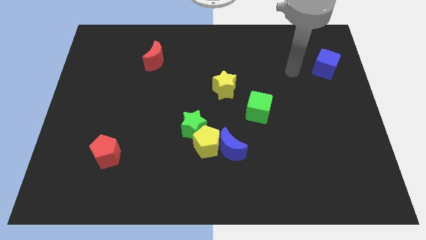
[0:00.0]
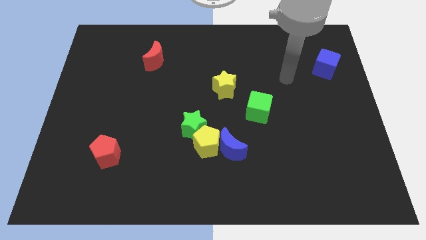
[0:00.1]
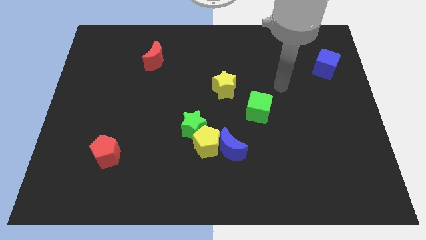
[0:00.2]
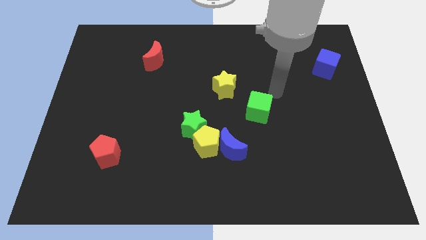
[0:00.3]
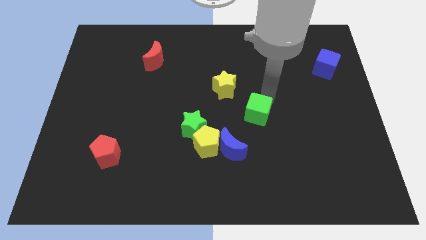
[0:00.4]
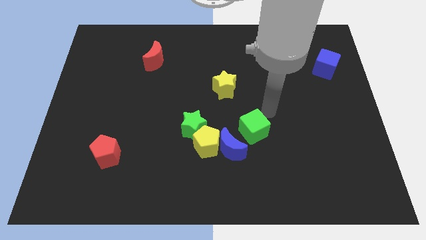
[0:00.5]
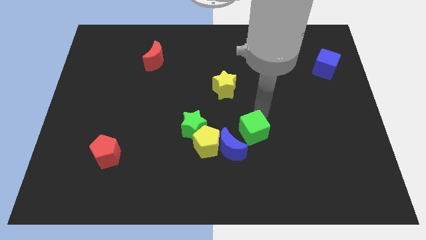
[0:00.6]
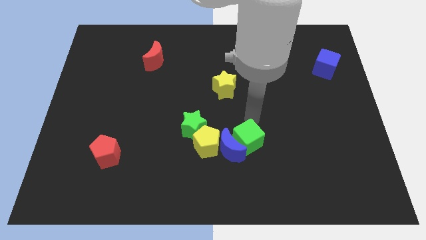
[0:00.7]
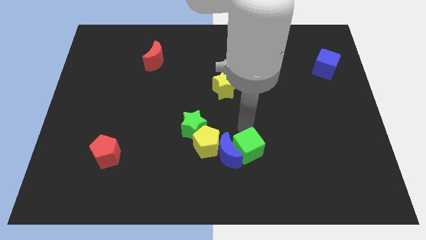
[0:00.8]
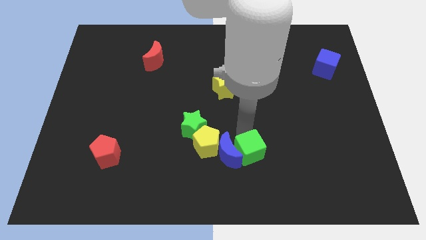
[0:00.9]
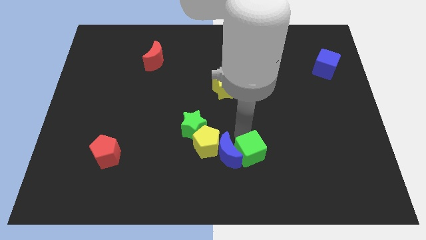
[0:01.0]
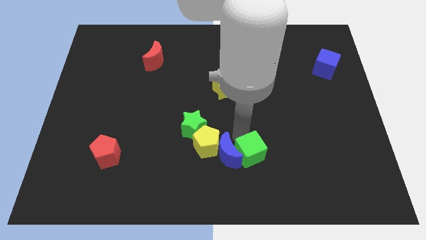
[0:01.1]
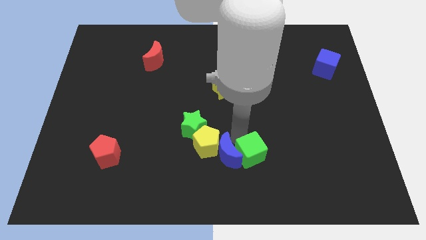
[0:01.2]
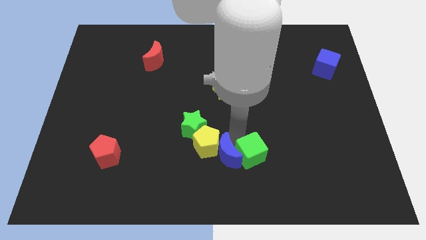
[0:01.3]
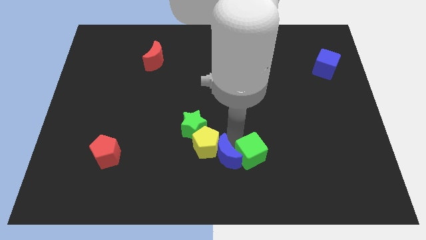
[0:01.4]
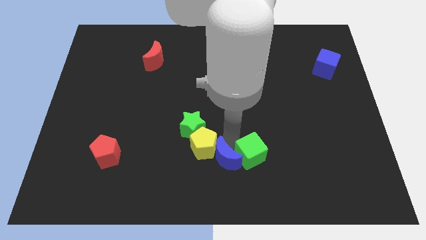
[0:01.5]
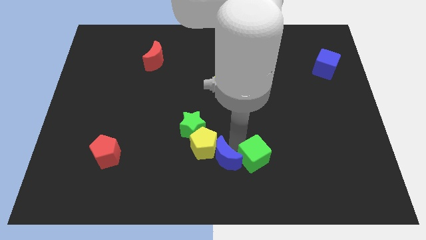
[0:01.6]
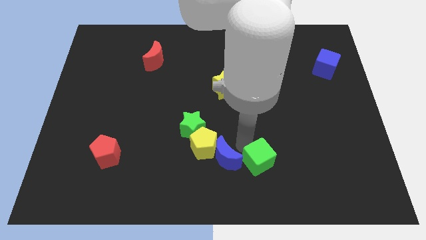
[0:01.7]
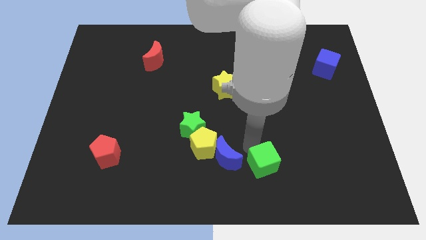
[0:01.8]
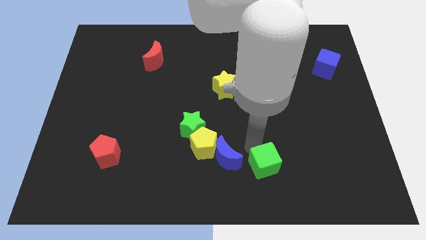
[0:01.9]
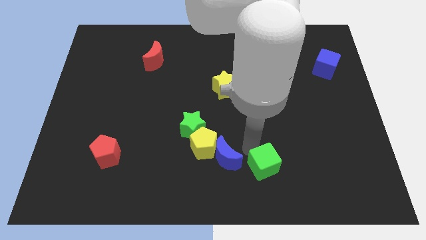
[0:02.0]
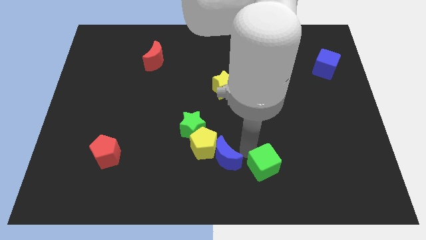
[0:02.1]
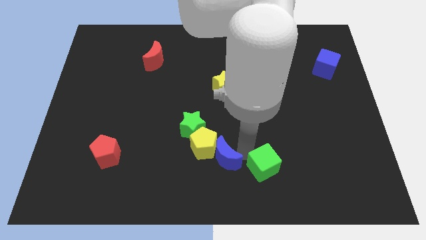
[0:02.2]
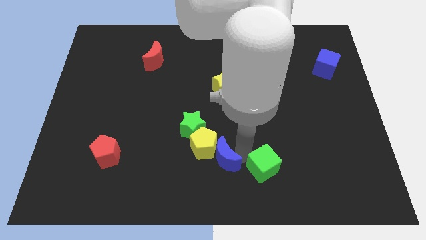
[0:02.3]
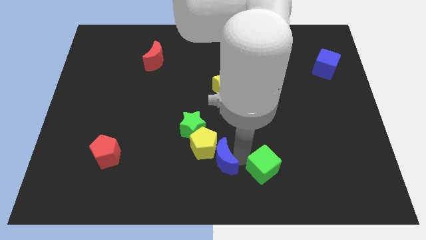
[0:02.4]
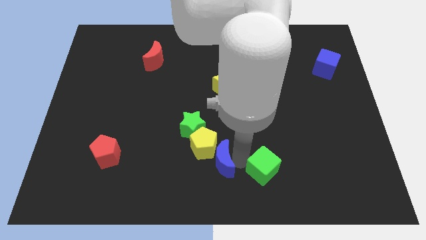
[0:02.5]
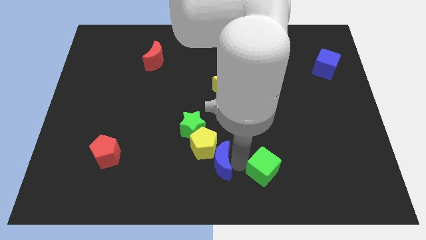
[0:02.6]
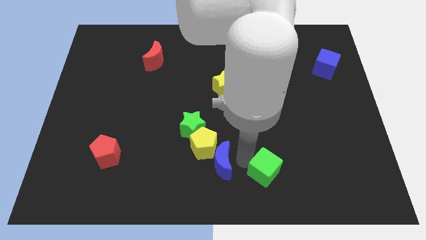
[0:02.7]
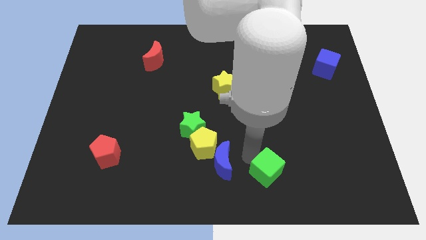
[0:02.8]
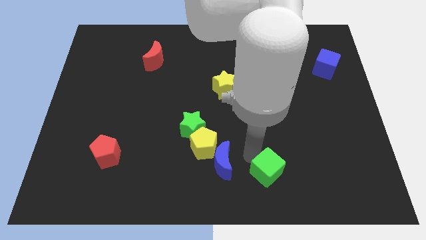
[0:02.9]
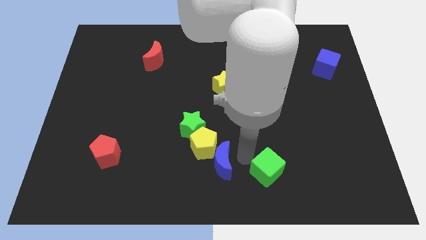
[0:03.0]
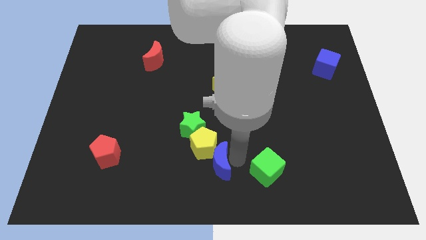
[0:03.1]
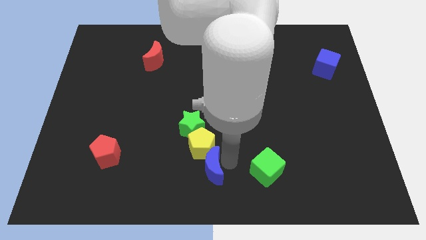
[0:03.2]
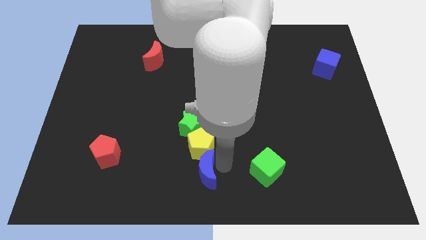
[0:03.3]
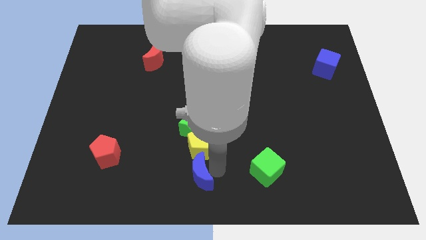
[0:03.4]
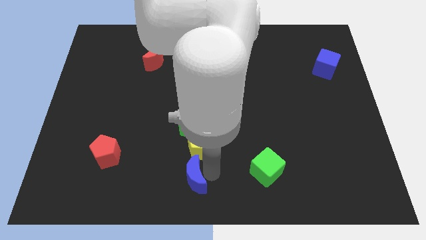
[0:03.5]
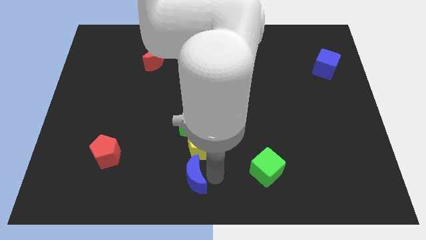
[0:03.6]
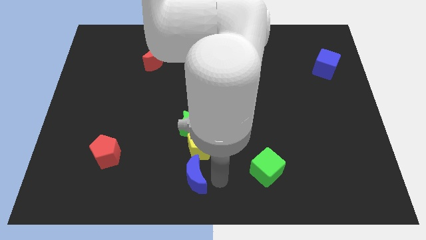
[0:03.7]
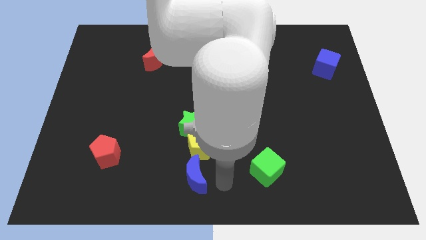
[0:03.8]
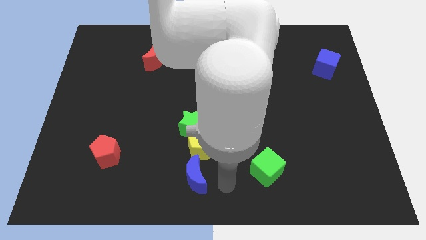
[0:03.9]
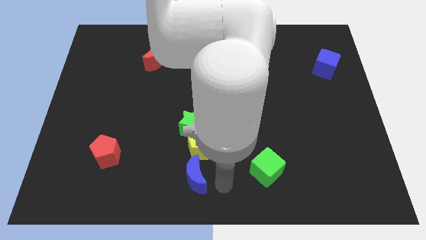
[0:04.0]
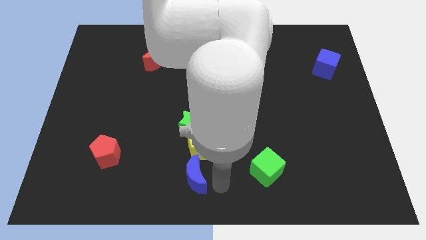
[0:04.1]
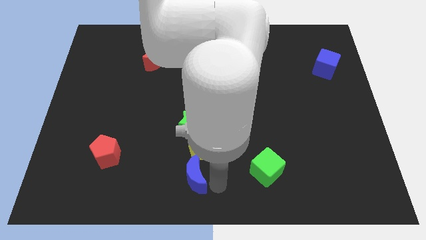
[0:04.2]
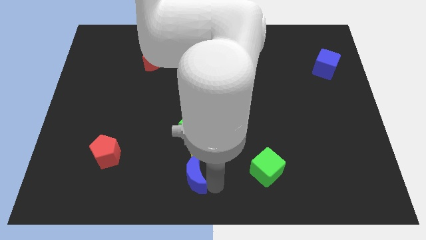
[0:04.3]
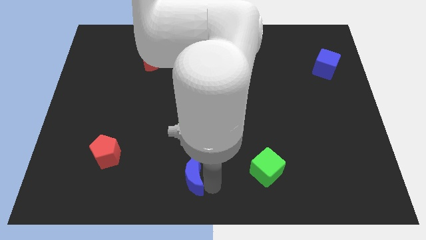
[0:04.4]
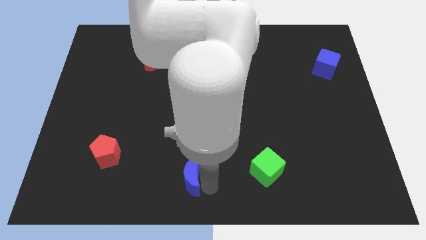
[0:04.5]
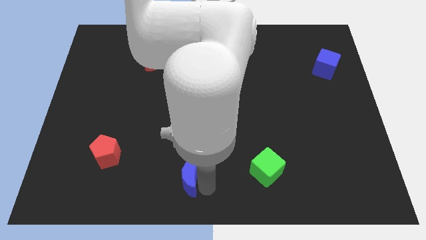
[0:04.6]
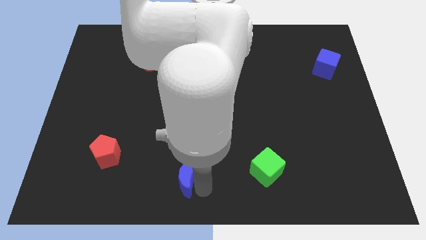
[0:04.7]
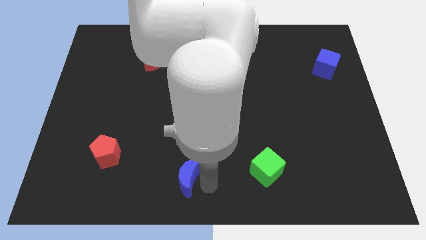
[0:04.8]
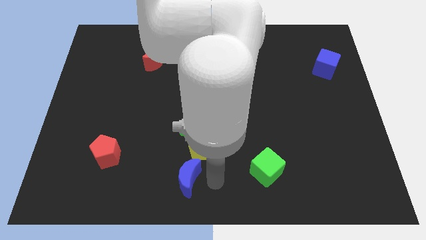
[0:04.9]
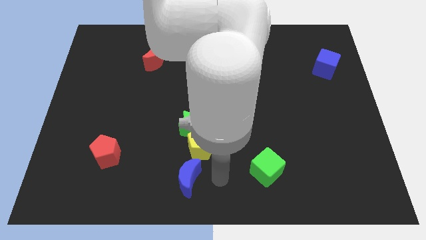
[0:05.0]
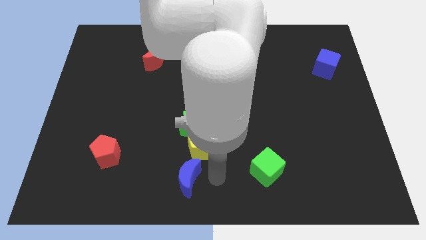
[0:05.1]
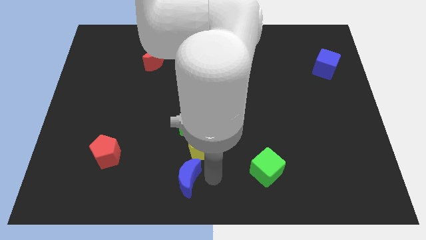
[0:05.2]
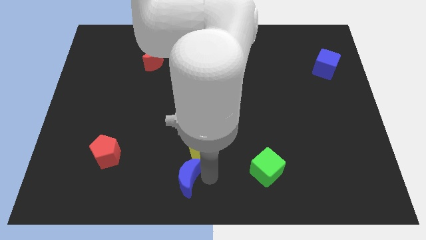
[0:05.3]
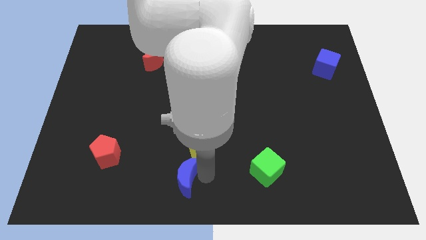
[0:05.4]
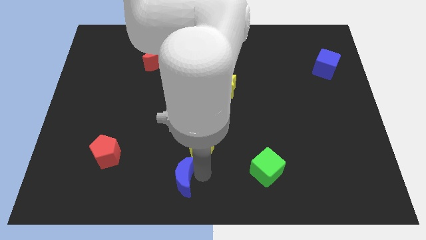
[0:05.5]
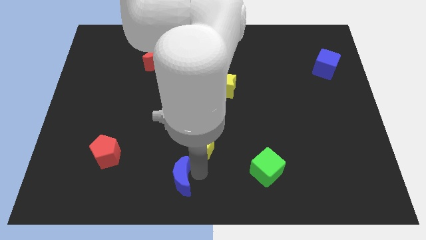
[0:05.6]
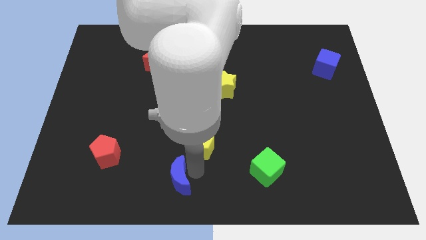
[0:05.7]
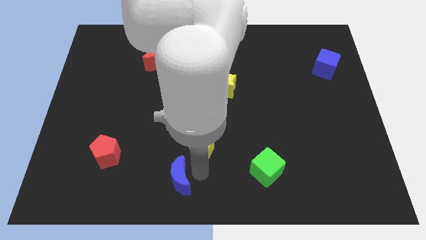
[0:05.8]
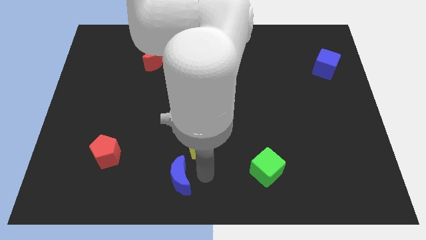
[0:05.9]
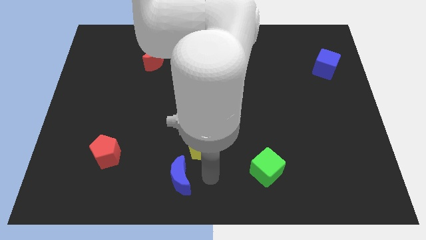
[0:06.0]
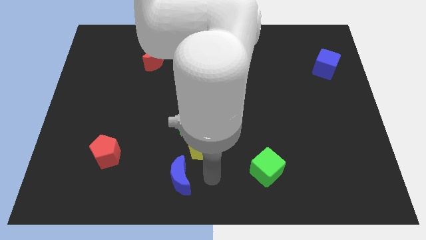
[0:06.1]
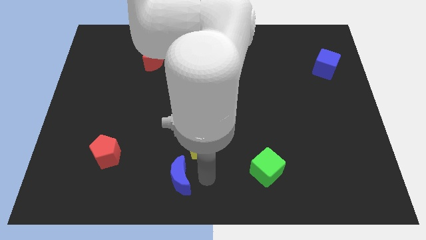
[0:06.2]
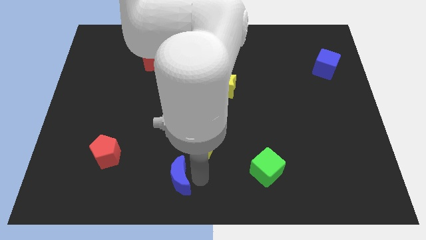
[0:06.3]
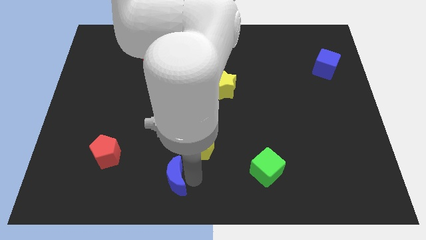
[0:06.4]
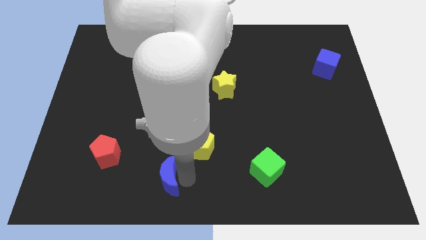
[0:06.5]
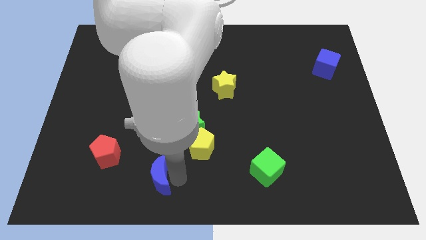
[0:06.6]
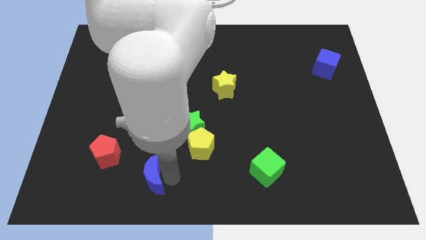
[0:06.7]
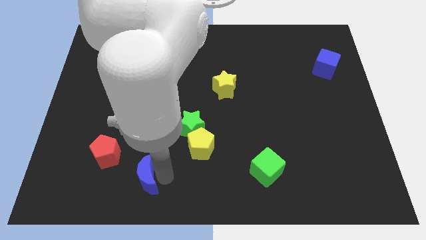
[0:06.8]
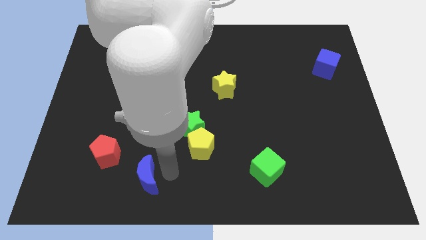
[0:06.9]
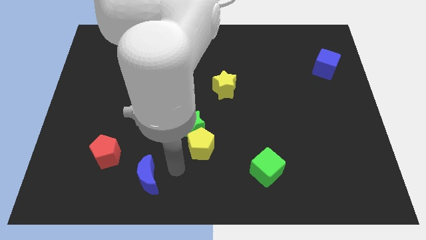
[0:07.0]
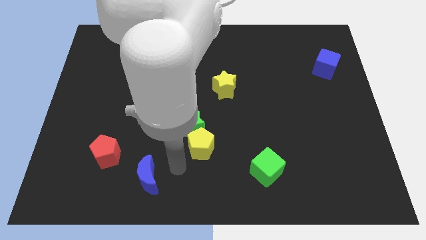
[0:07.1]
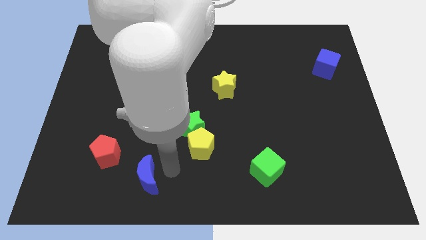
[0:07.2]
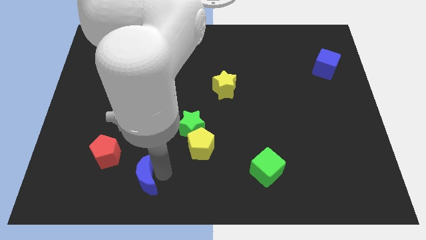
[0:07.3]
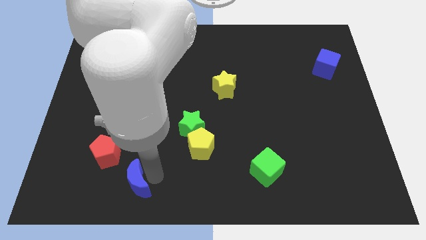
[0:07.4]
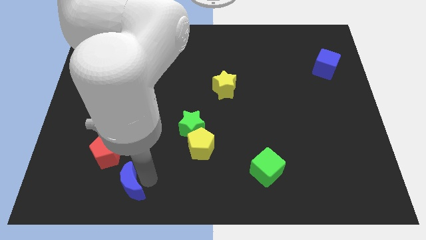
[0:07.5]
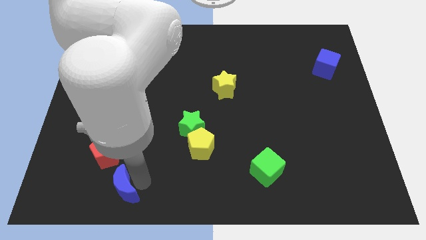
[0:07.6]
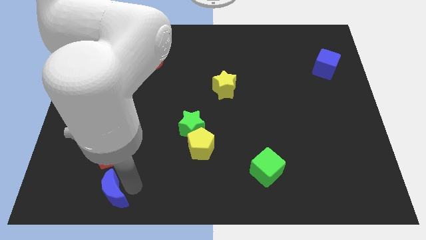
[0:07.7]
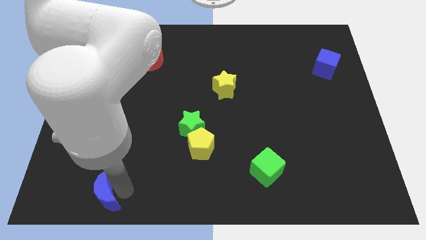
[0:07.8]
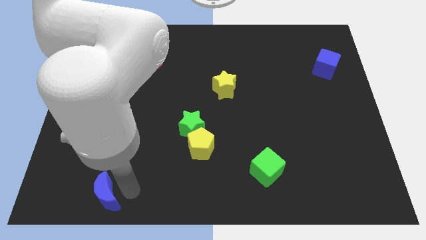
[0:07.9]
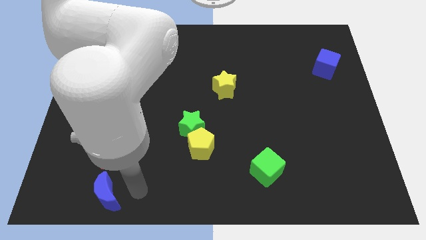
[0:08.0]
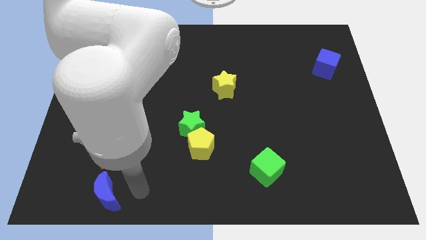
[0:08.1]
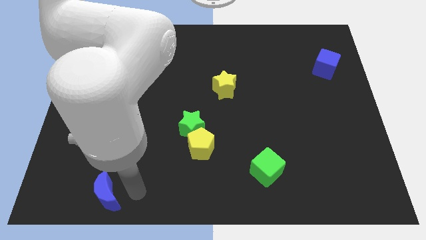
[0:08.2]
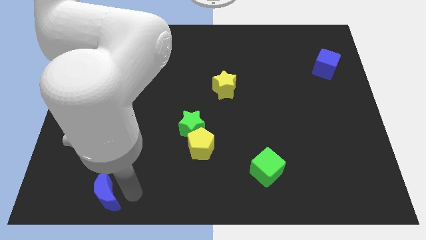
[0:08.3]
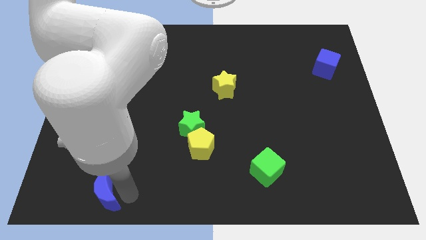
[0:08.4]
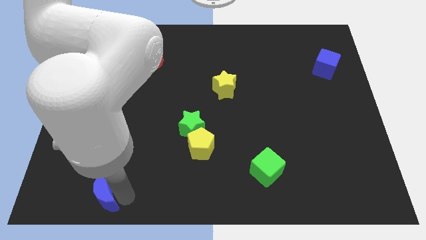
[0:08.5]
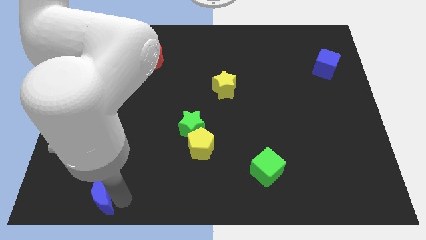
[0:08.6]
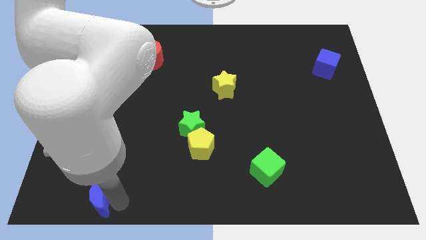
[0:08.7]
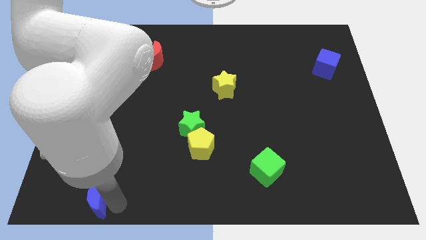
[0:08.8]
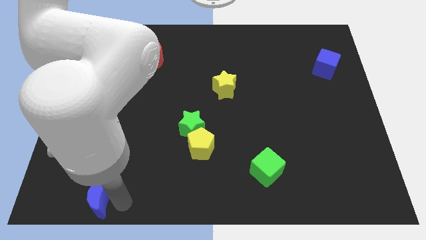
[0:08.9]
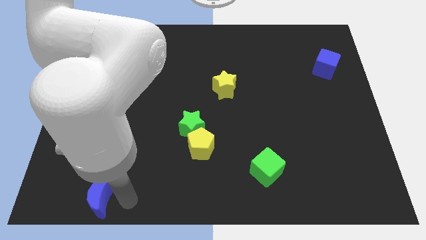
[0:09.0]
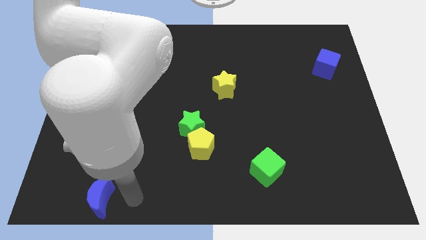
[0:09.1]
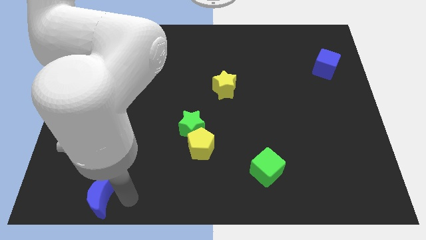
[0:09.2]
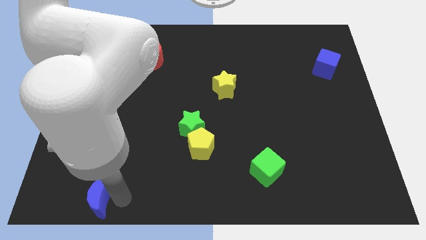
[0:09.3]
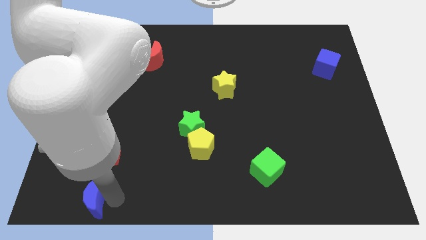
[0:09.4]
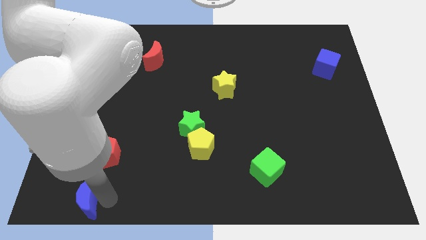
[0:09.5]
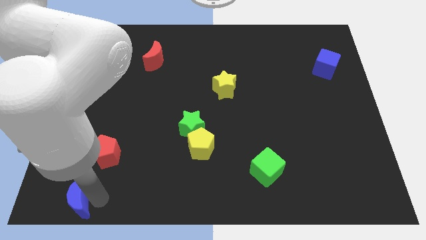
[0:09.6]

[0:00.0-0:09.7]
push the blue moon to the bottom left
